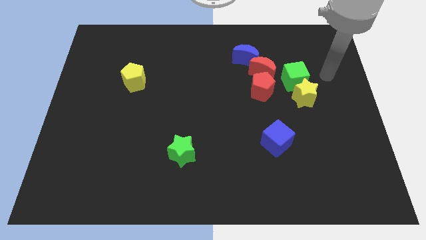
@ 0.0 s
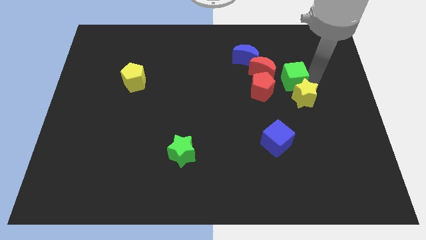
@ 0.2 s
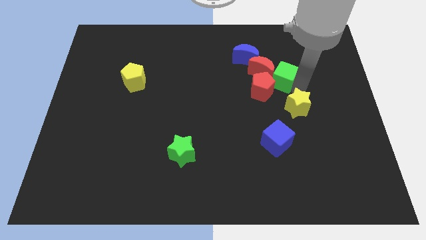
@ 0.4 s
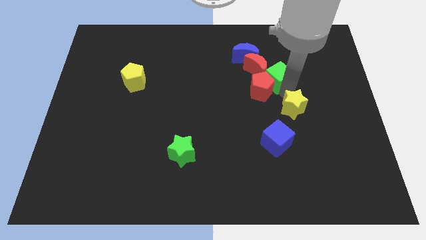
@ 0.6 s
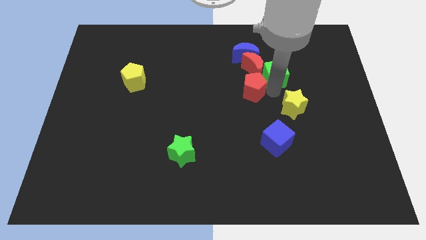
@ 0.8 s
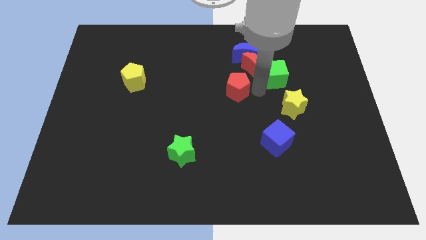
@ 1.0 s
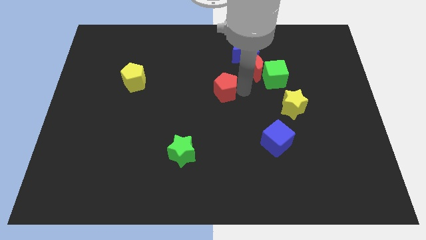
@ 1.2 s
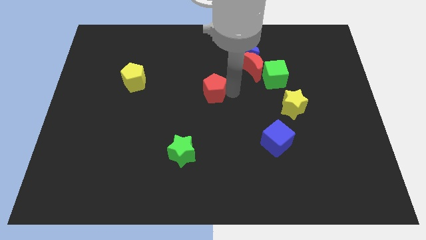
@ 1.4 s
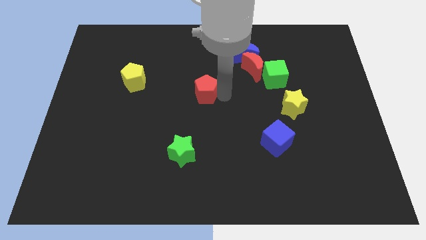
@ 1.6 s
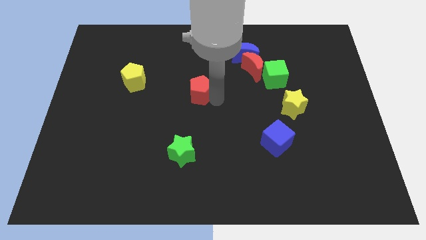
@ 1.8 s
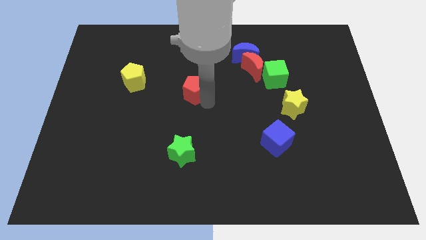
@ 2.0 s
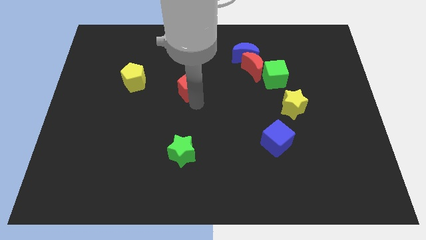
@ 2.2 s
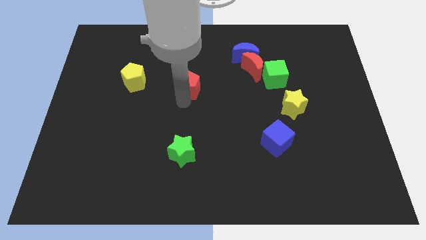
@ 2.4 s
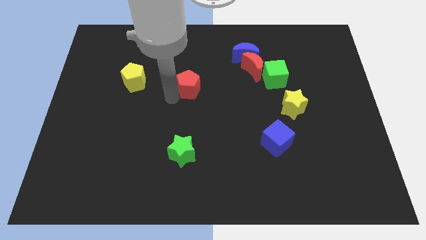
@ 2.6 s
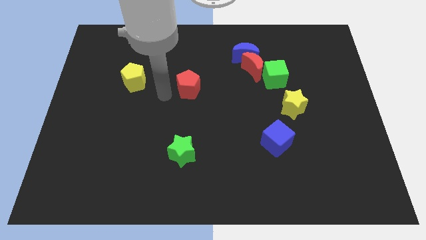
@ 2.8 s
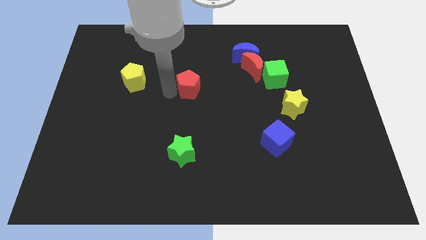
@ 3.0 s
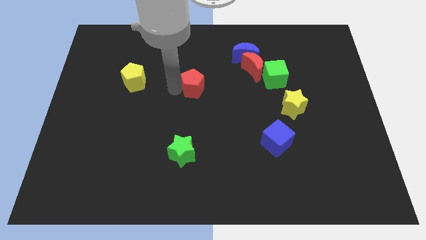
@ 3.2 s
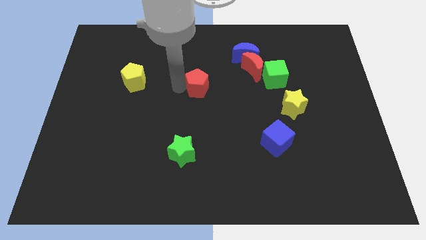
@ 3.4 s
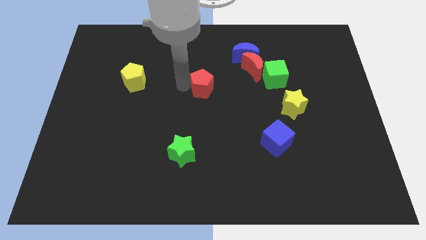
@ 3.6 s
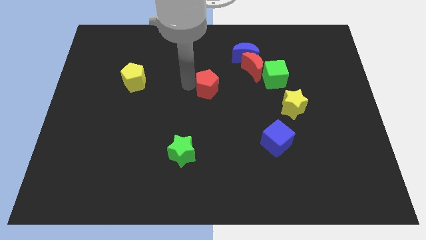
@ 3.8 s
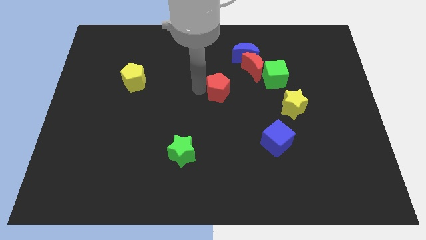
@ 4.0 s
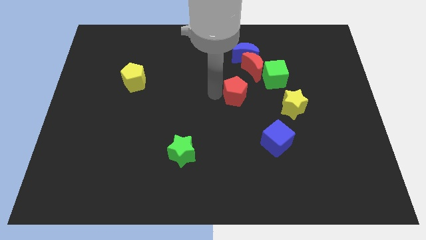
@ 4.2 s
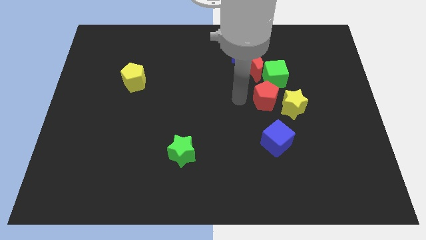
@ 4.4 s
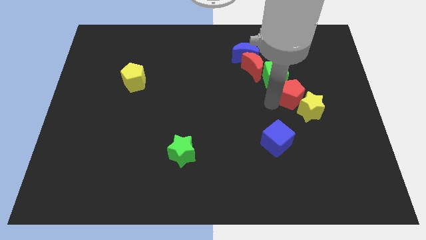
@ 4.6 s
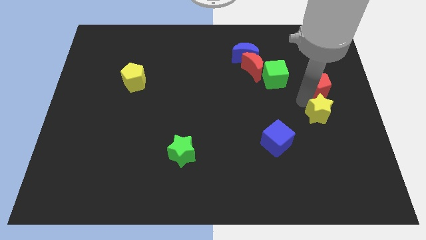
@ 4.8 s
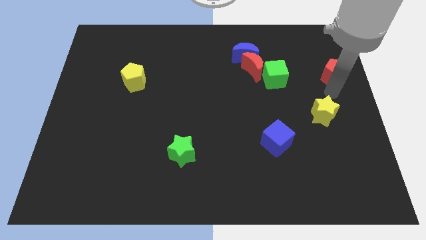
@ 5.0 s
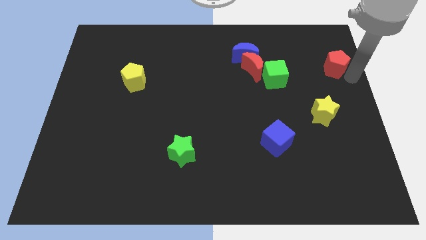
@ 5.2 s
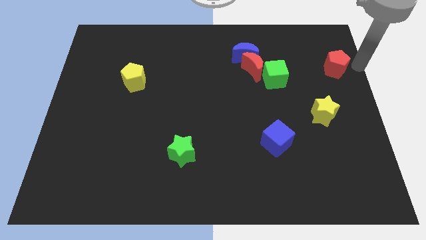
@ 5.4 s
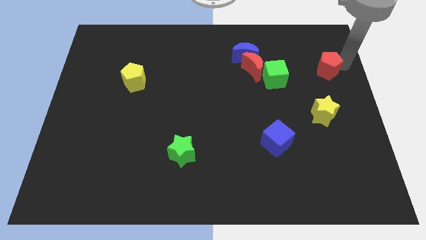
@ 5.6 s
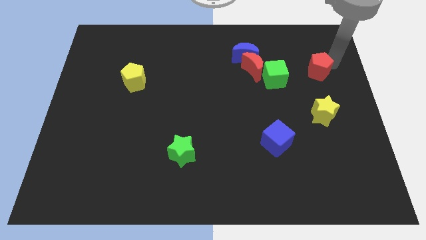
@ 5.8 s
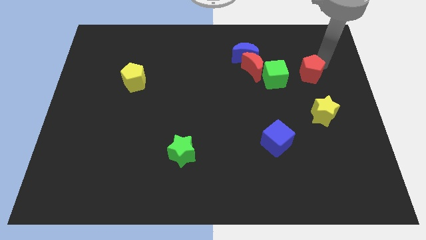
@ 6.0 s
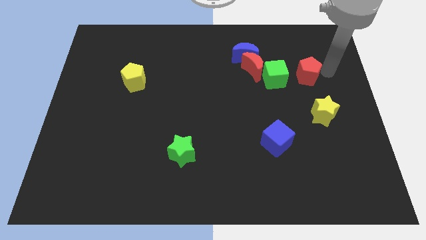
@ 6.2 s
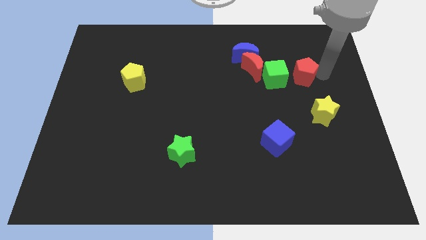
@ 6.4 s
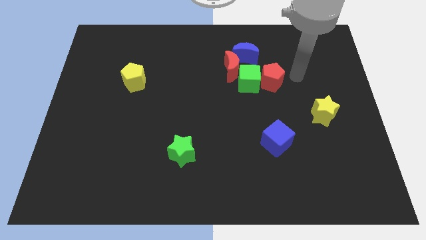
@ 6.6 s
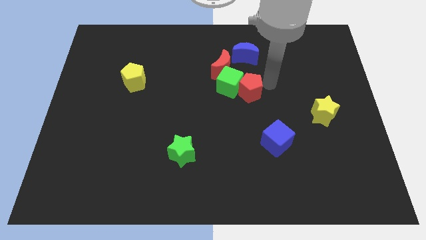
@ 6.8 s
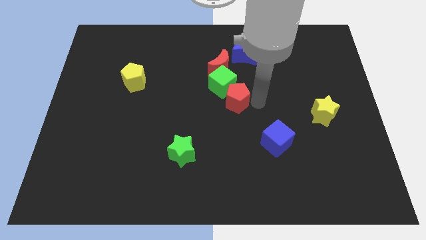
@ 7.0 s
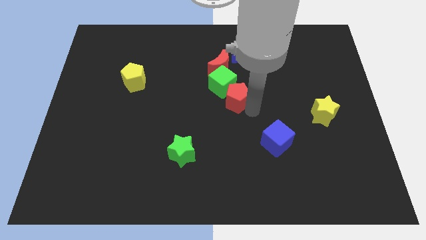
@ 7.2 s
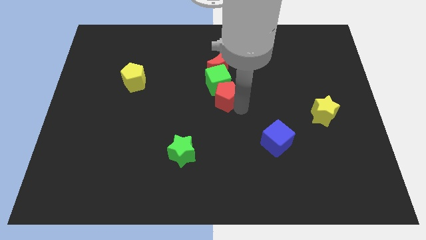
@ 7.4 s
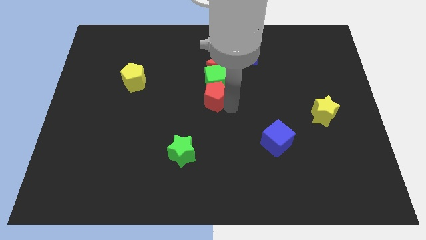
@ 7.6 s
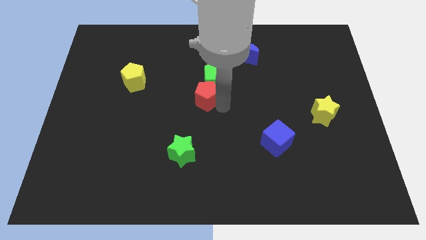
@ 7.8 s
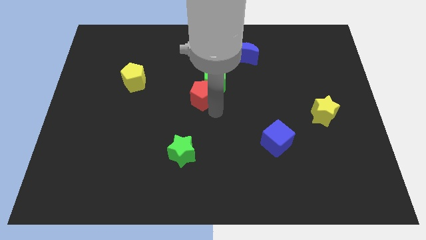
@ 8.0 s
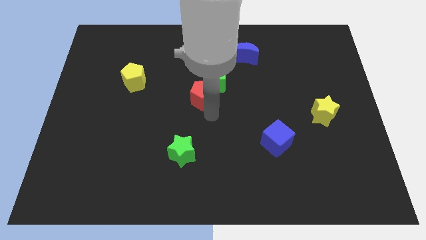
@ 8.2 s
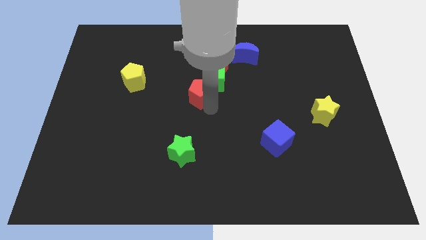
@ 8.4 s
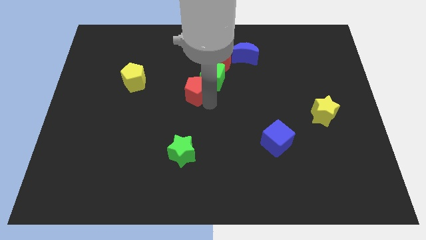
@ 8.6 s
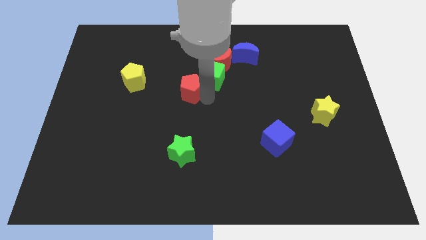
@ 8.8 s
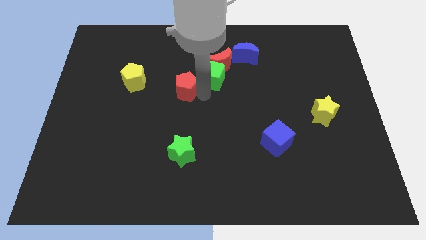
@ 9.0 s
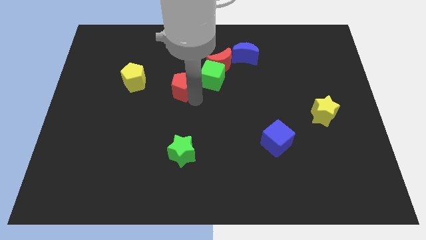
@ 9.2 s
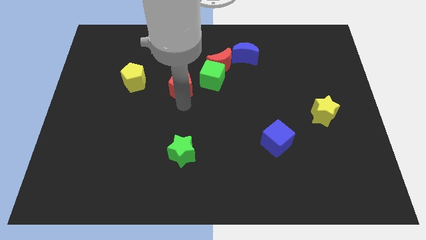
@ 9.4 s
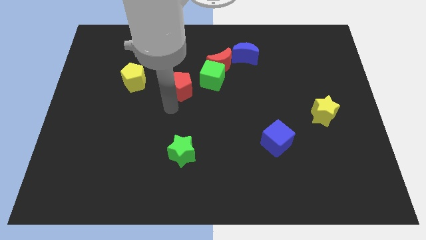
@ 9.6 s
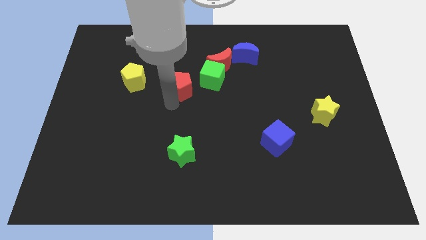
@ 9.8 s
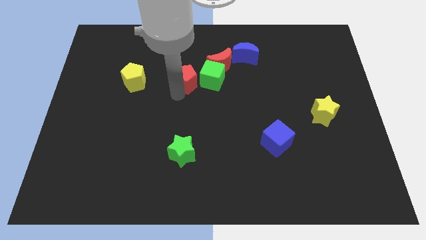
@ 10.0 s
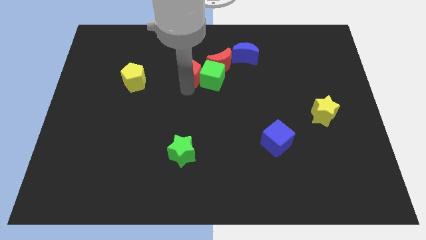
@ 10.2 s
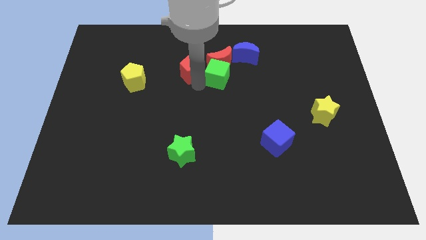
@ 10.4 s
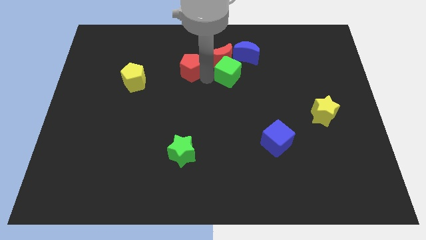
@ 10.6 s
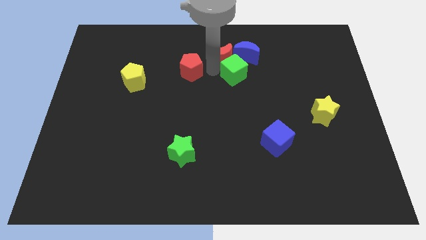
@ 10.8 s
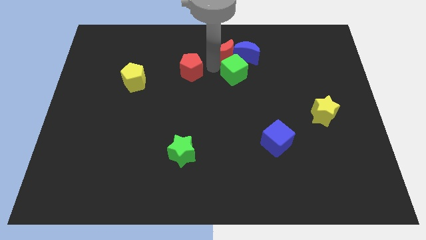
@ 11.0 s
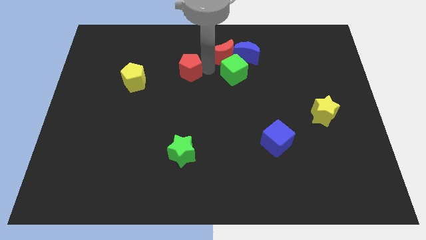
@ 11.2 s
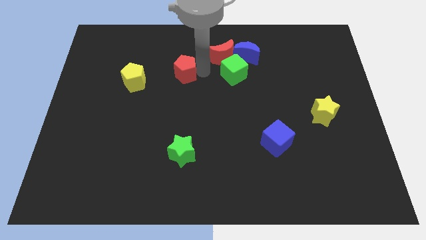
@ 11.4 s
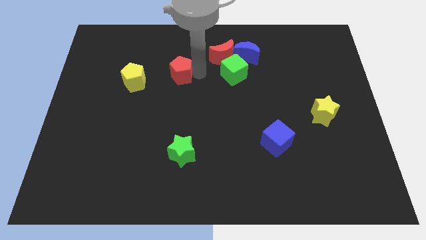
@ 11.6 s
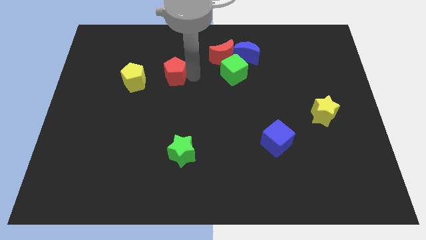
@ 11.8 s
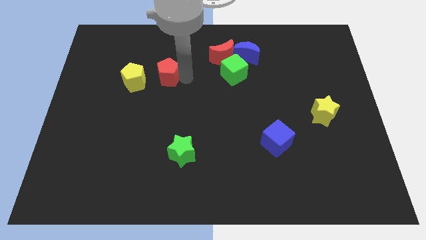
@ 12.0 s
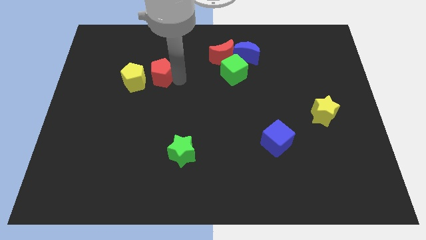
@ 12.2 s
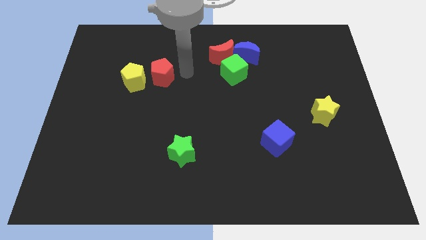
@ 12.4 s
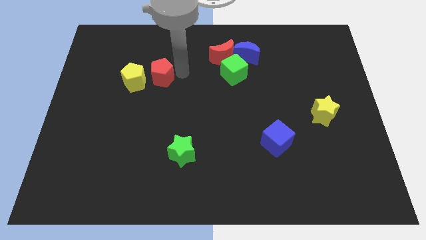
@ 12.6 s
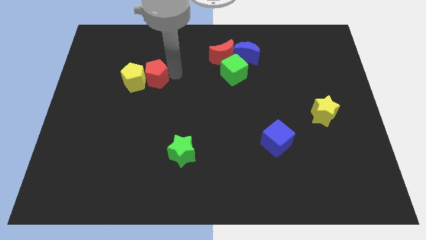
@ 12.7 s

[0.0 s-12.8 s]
push the red pentagon towards the yellow pentagon

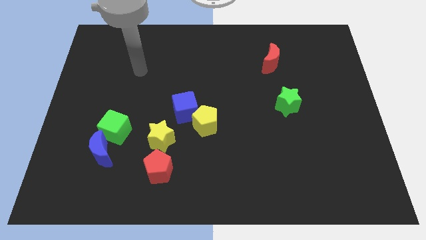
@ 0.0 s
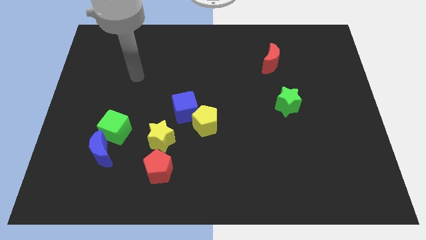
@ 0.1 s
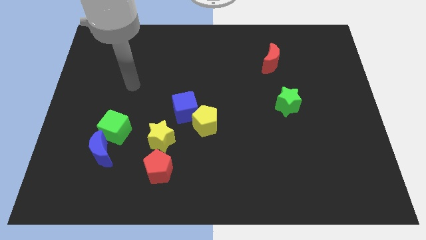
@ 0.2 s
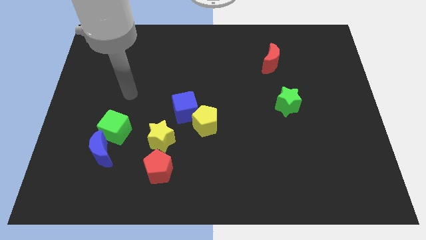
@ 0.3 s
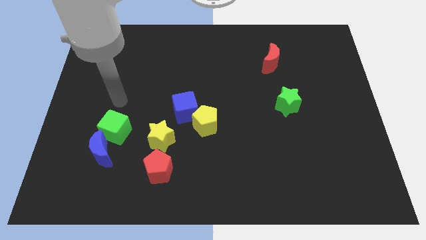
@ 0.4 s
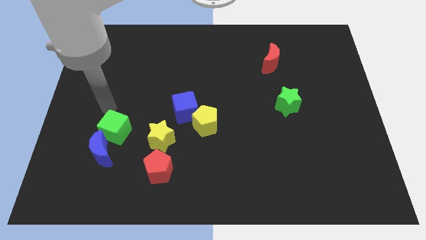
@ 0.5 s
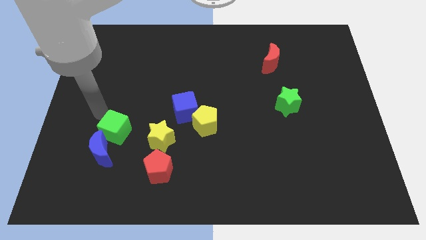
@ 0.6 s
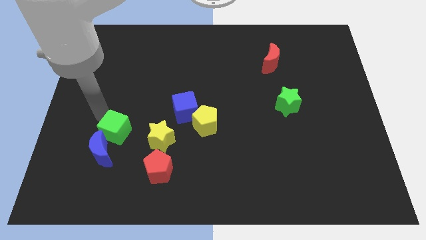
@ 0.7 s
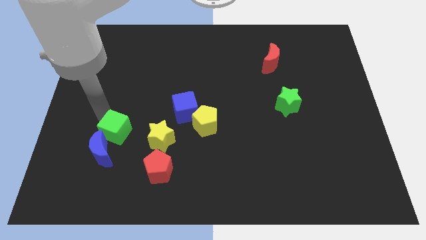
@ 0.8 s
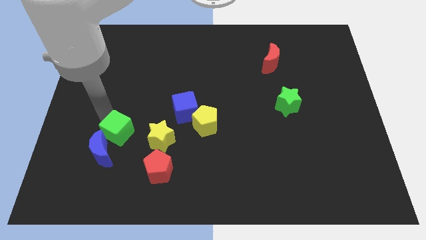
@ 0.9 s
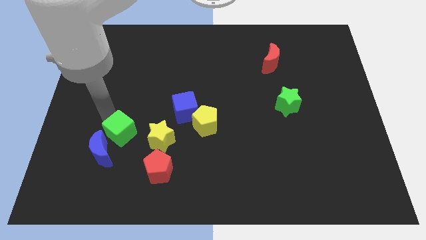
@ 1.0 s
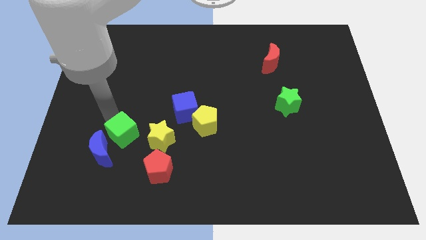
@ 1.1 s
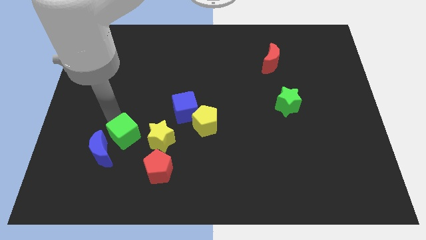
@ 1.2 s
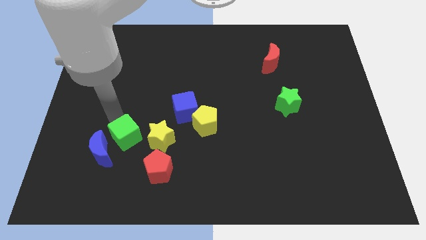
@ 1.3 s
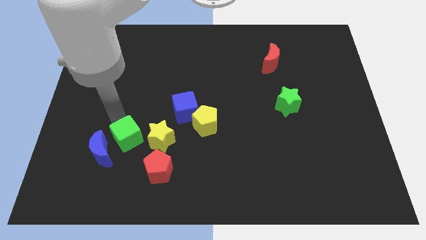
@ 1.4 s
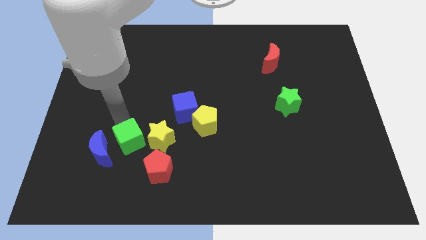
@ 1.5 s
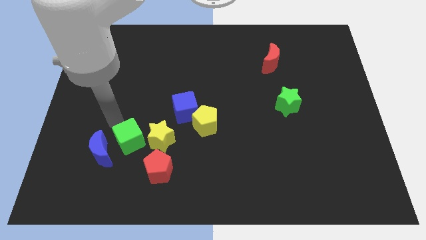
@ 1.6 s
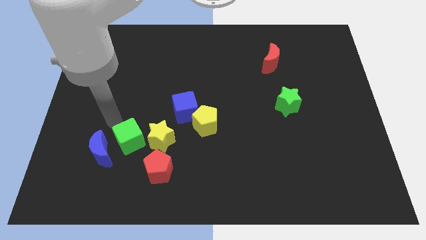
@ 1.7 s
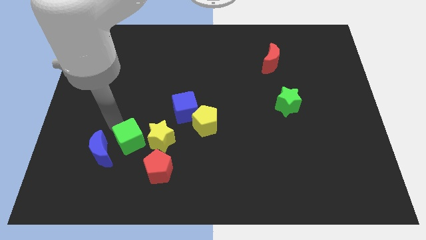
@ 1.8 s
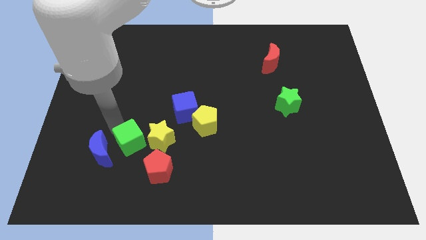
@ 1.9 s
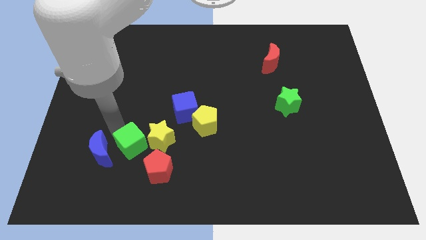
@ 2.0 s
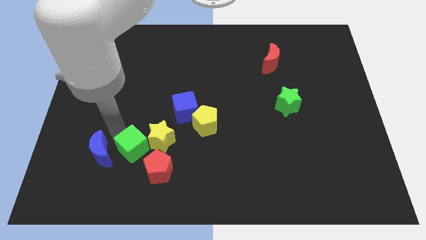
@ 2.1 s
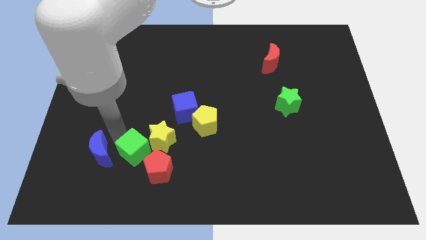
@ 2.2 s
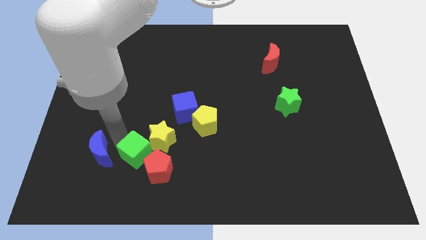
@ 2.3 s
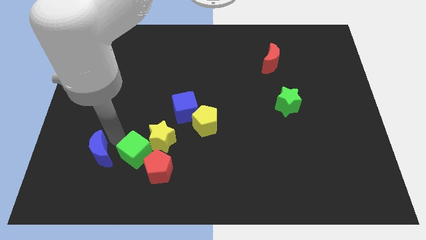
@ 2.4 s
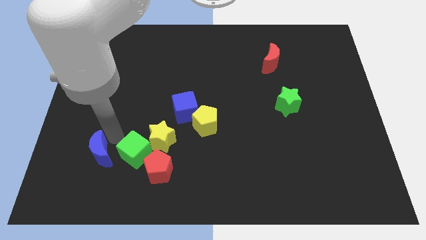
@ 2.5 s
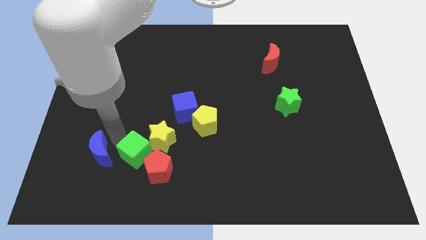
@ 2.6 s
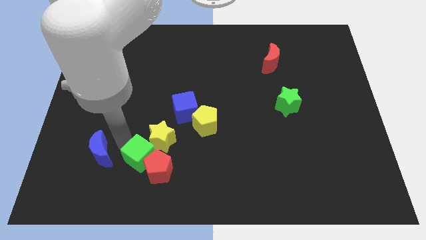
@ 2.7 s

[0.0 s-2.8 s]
slide the green cube towards the red pentagon
